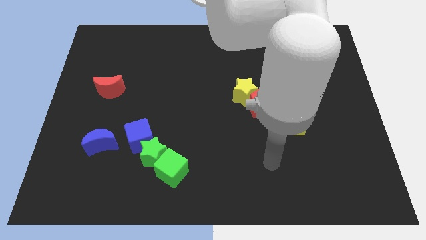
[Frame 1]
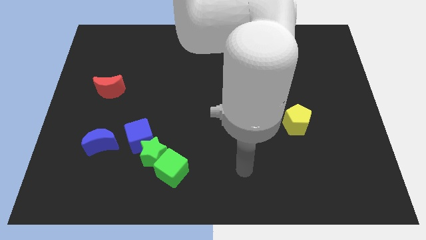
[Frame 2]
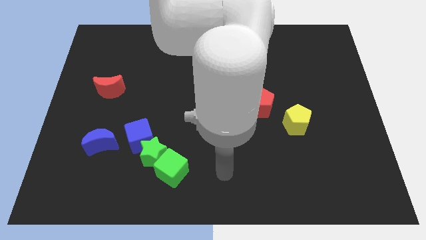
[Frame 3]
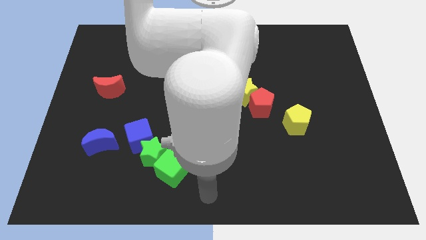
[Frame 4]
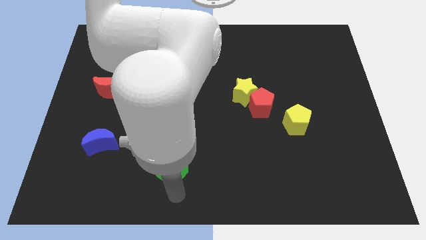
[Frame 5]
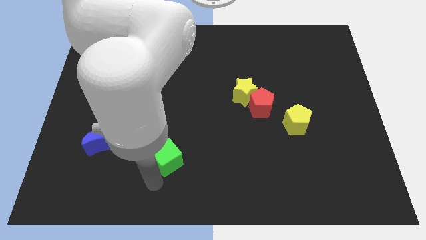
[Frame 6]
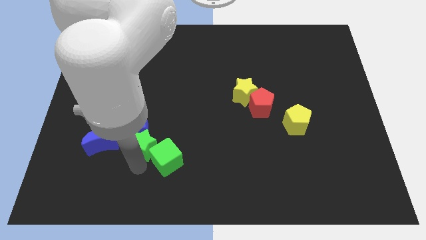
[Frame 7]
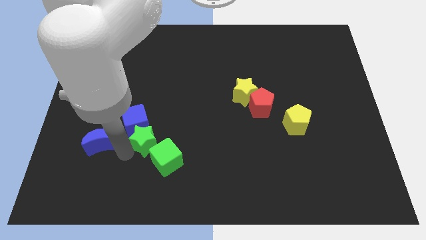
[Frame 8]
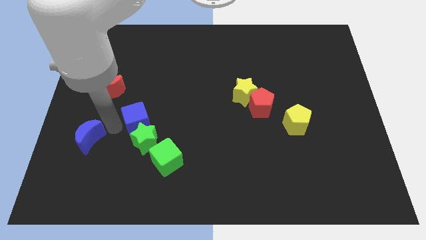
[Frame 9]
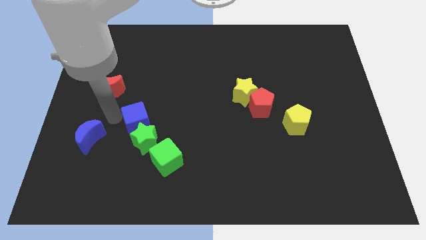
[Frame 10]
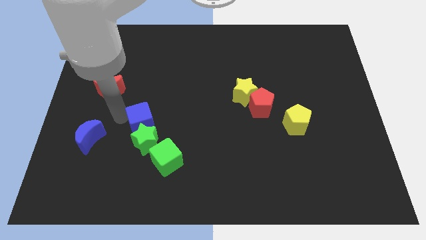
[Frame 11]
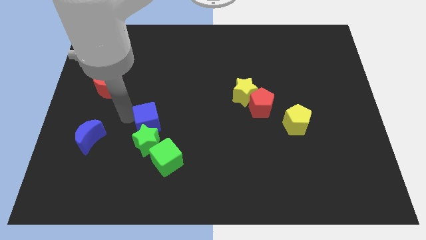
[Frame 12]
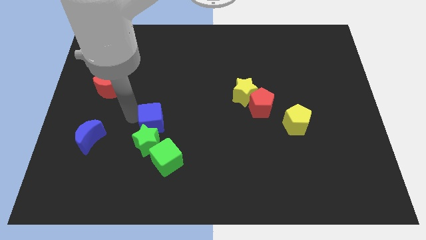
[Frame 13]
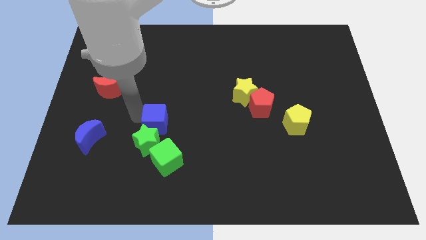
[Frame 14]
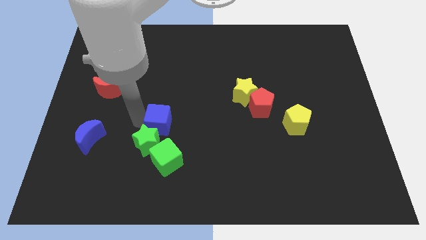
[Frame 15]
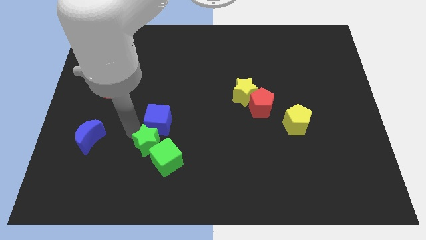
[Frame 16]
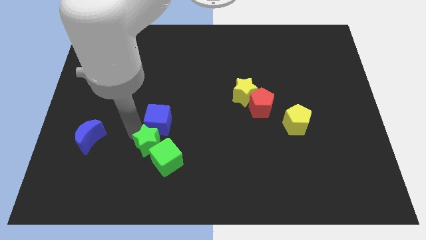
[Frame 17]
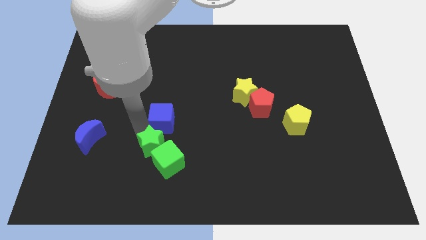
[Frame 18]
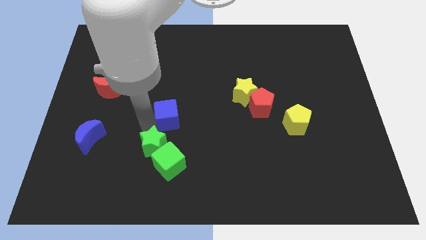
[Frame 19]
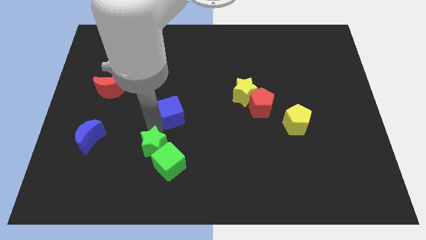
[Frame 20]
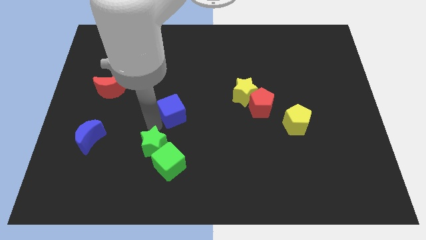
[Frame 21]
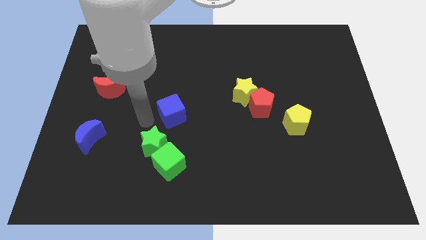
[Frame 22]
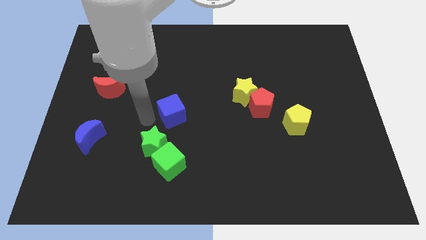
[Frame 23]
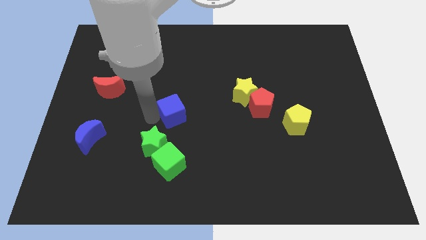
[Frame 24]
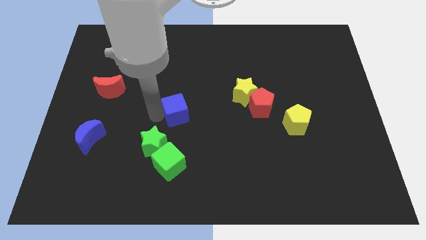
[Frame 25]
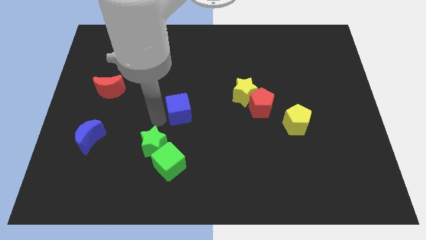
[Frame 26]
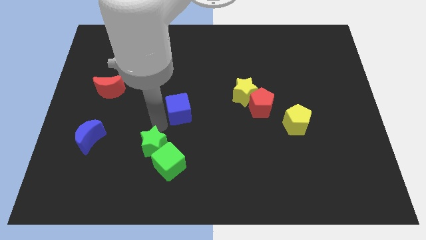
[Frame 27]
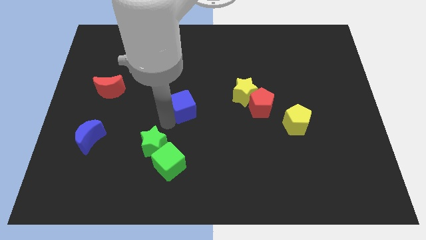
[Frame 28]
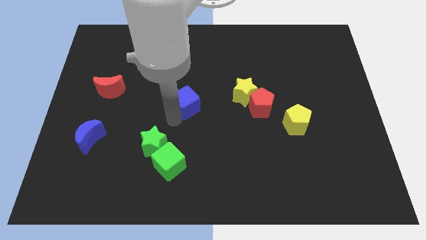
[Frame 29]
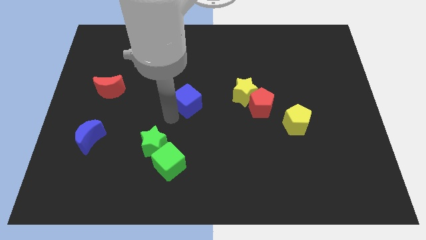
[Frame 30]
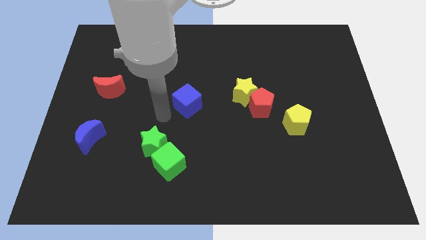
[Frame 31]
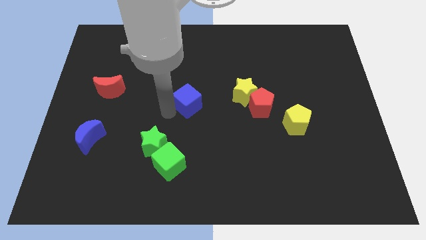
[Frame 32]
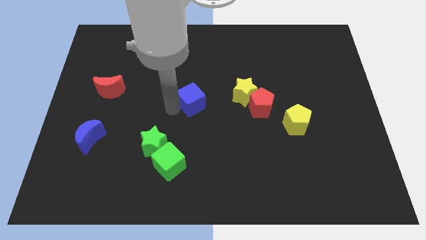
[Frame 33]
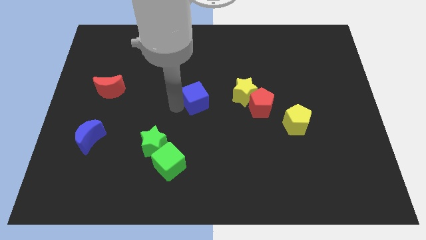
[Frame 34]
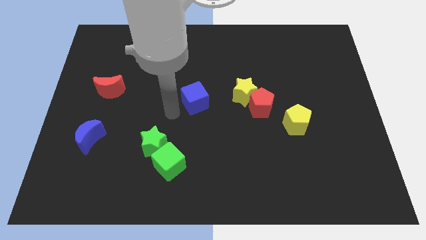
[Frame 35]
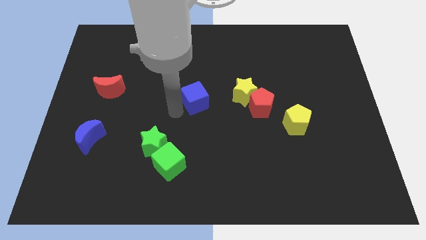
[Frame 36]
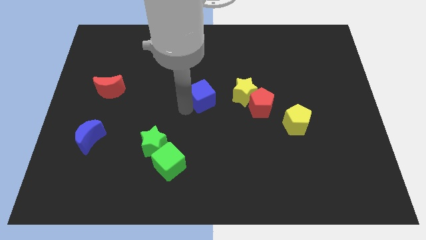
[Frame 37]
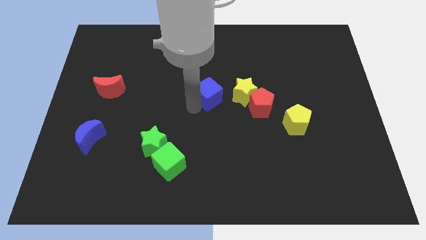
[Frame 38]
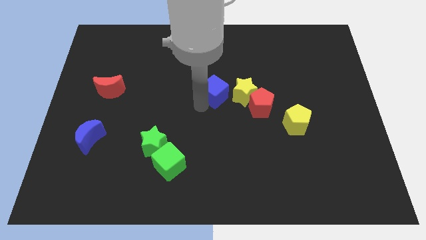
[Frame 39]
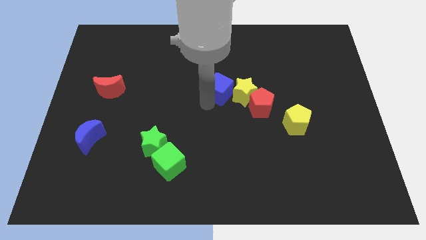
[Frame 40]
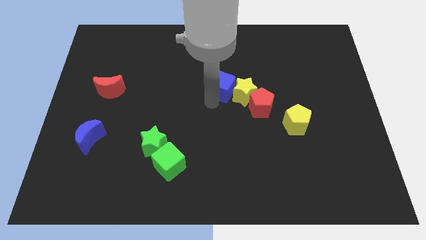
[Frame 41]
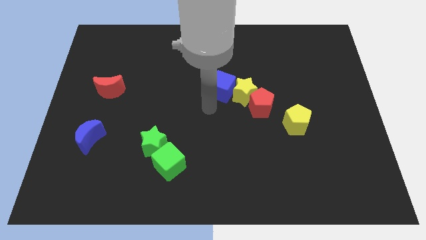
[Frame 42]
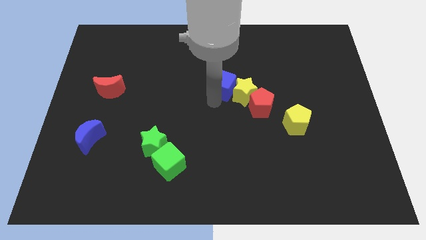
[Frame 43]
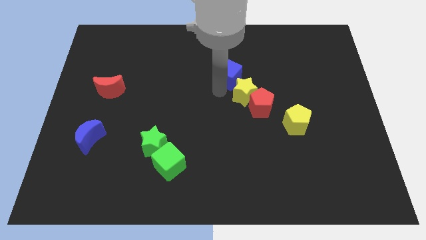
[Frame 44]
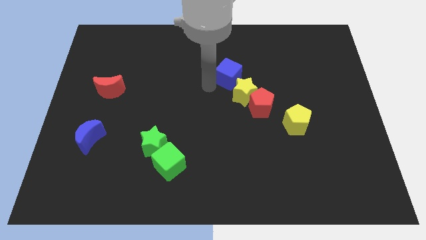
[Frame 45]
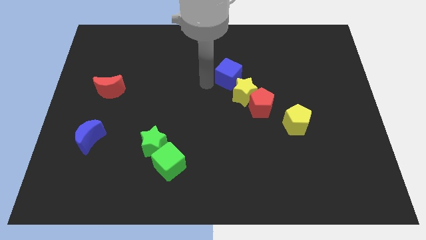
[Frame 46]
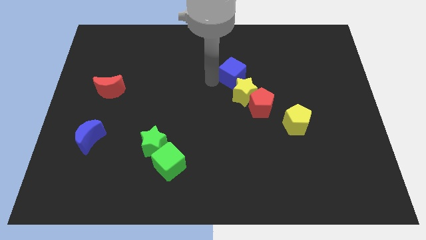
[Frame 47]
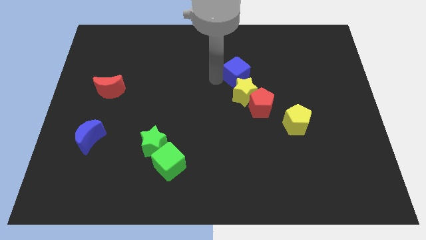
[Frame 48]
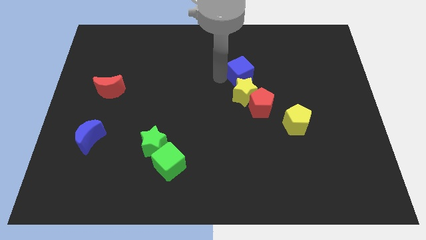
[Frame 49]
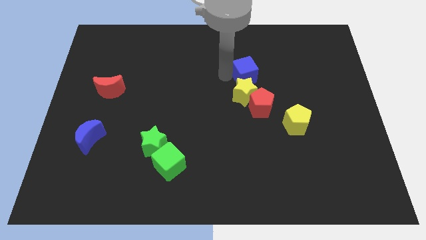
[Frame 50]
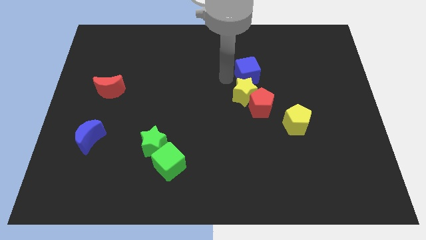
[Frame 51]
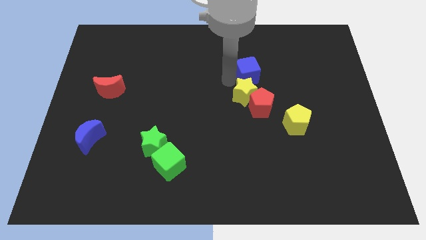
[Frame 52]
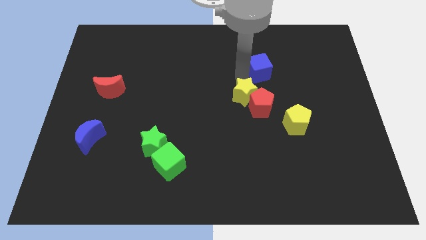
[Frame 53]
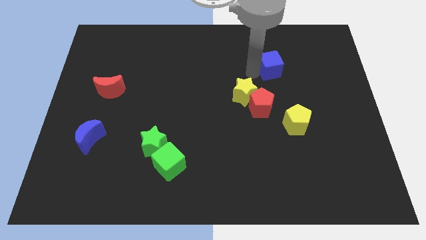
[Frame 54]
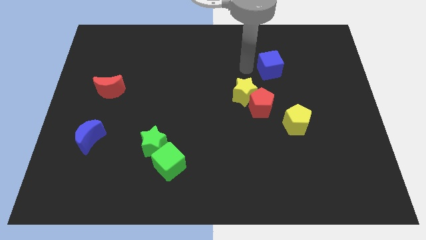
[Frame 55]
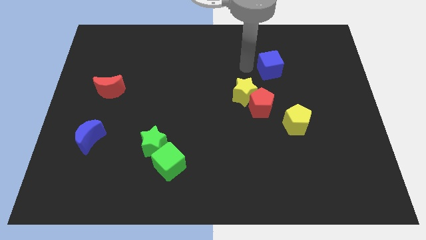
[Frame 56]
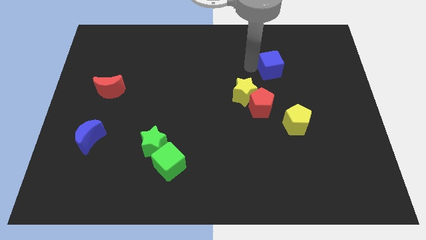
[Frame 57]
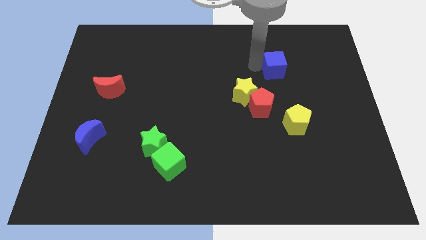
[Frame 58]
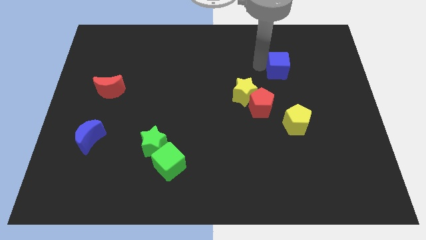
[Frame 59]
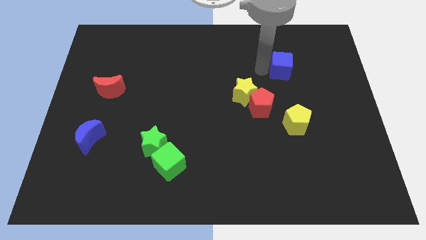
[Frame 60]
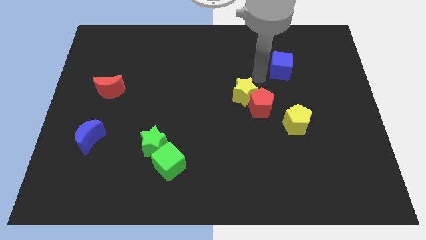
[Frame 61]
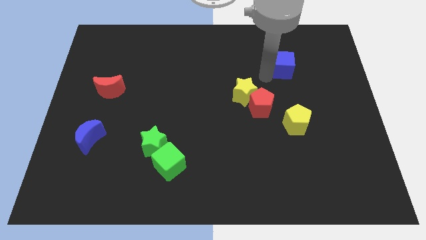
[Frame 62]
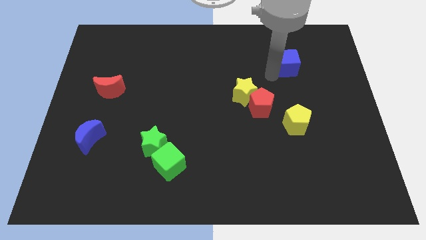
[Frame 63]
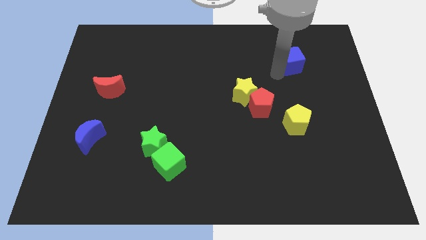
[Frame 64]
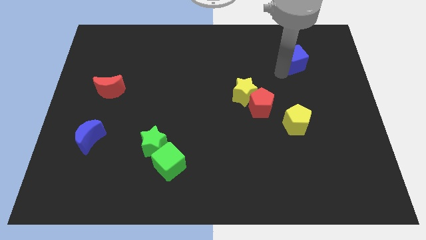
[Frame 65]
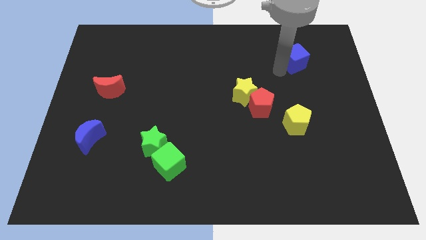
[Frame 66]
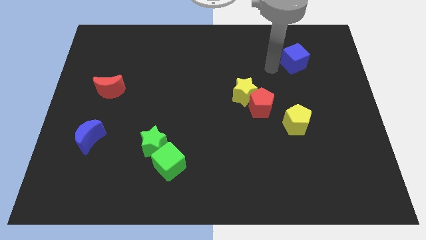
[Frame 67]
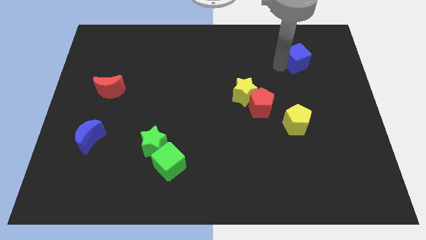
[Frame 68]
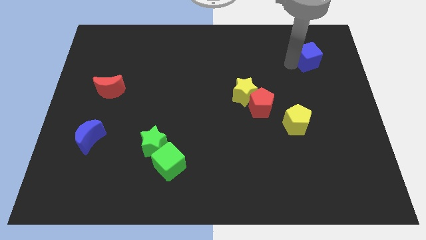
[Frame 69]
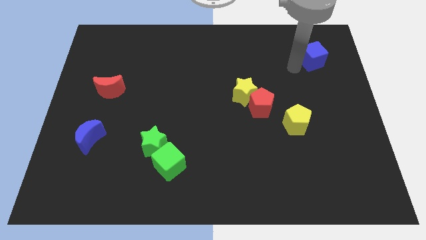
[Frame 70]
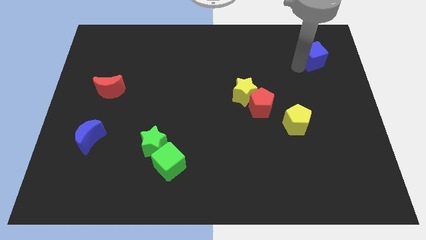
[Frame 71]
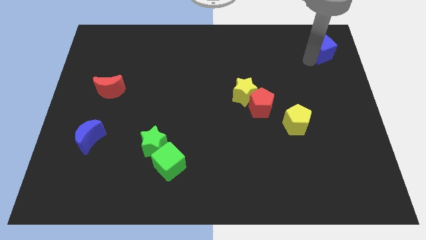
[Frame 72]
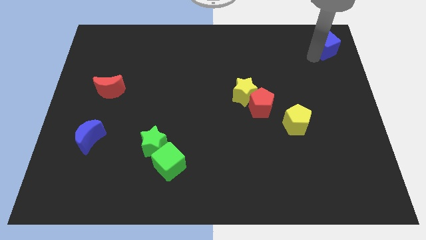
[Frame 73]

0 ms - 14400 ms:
put the blue cube to the upper right corner
